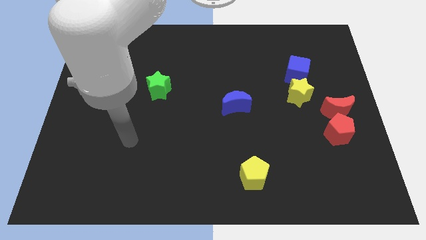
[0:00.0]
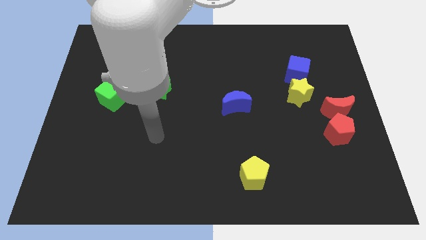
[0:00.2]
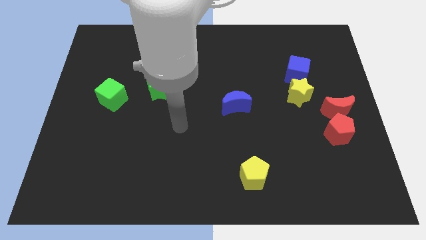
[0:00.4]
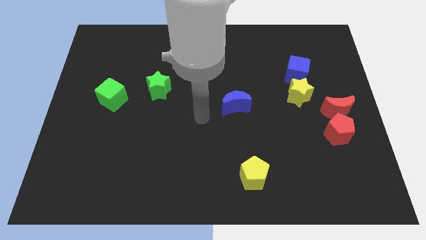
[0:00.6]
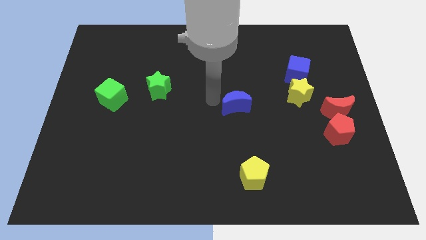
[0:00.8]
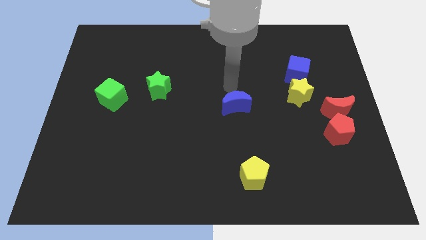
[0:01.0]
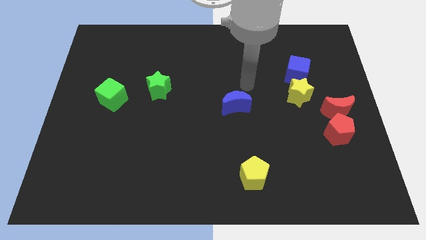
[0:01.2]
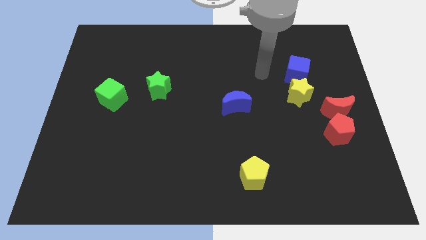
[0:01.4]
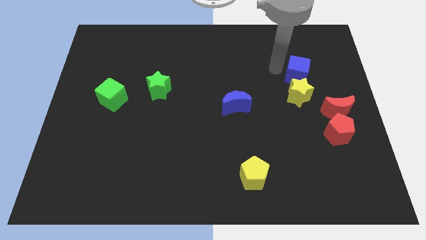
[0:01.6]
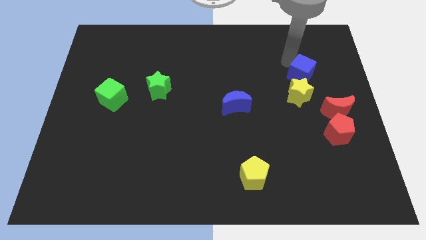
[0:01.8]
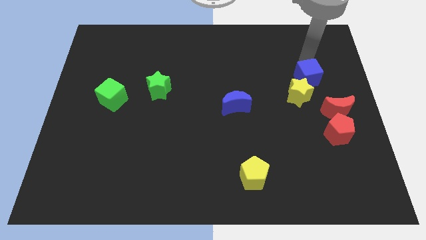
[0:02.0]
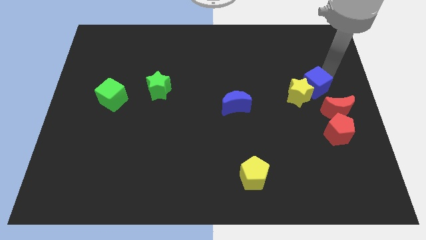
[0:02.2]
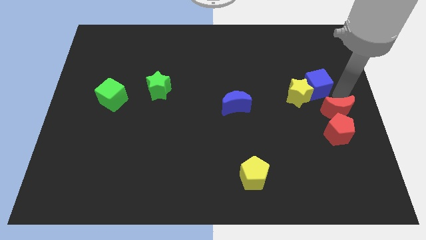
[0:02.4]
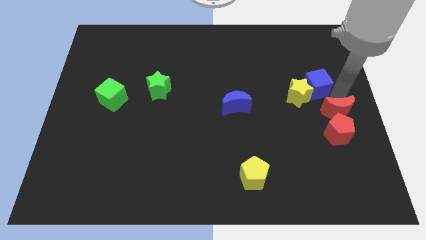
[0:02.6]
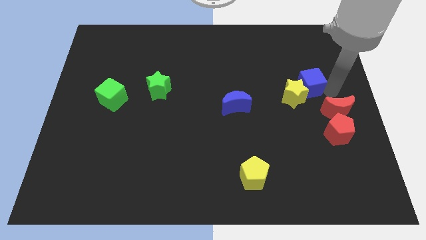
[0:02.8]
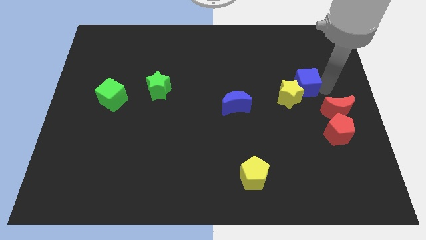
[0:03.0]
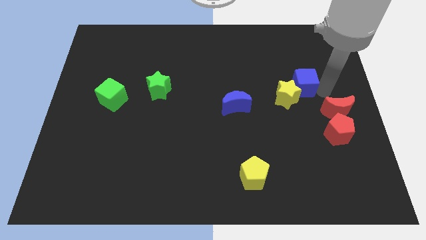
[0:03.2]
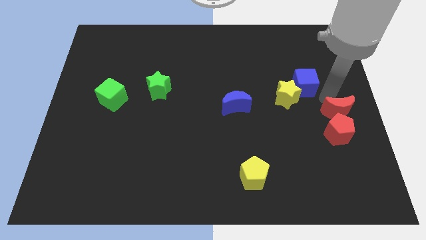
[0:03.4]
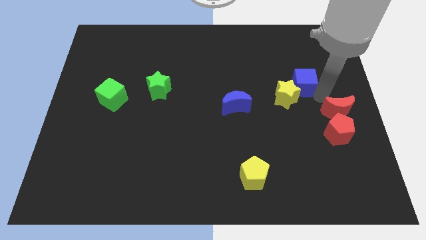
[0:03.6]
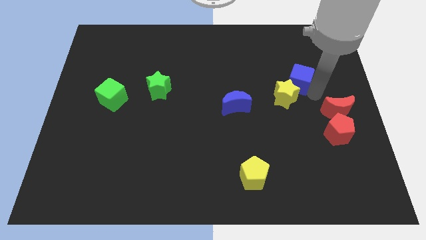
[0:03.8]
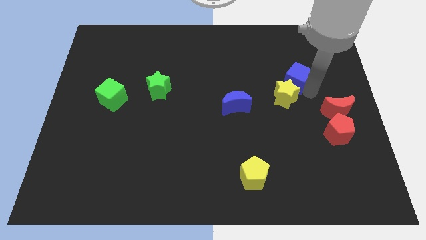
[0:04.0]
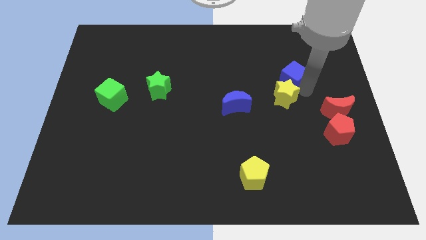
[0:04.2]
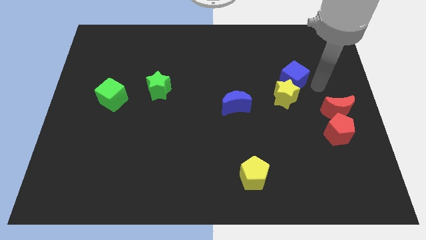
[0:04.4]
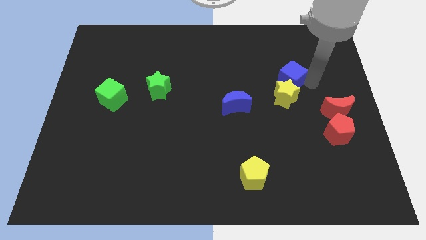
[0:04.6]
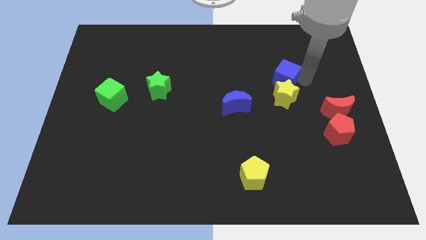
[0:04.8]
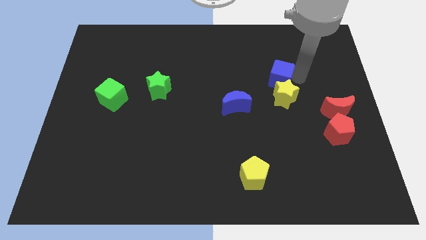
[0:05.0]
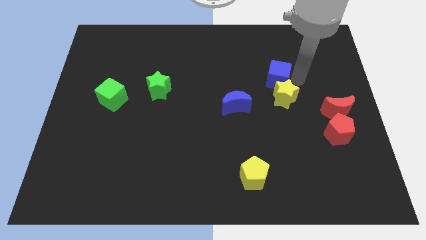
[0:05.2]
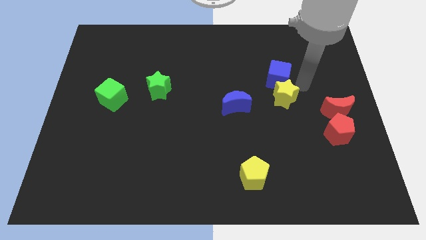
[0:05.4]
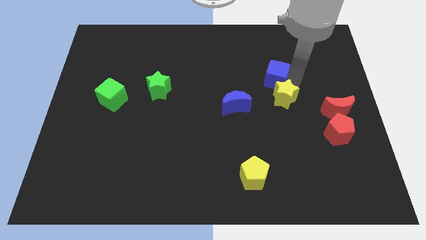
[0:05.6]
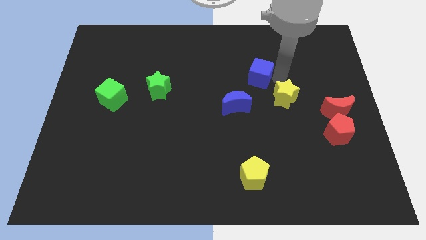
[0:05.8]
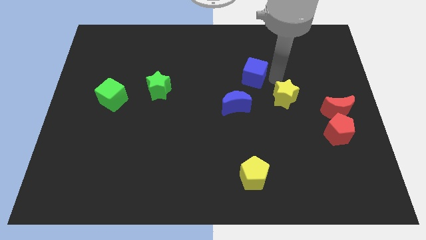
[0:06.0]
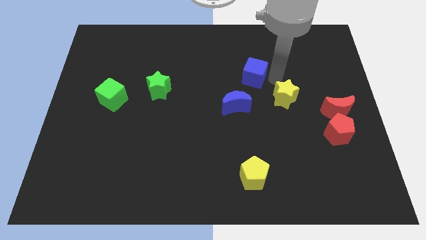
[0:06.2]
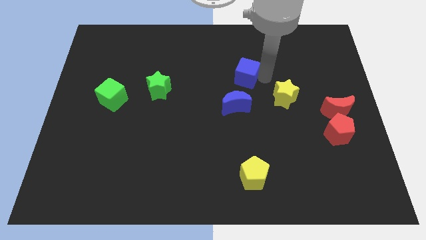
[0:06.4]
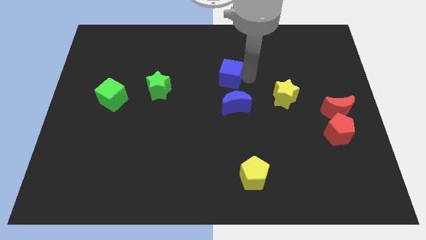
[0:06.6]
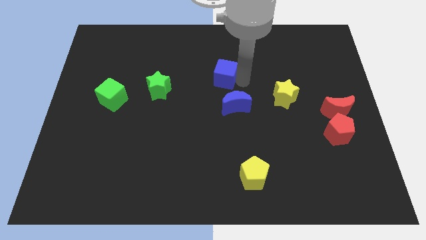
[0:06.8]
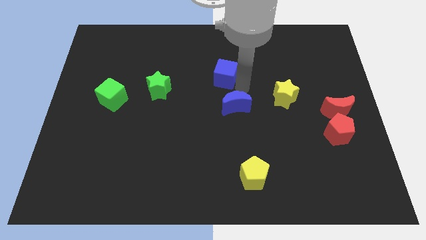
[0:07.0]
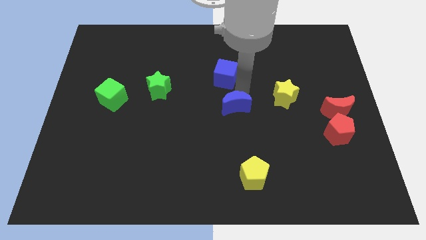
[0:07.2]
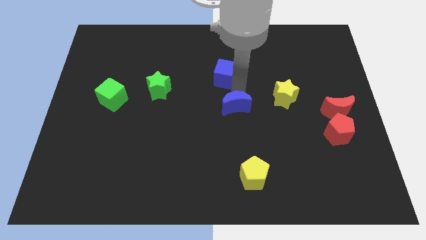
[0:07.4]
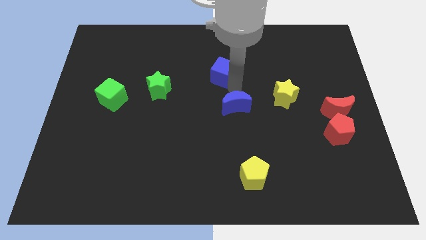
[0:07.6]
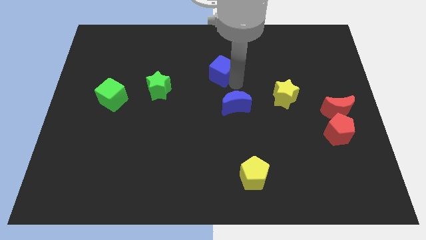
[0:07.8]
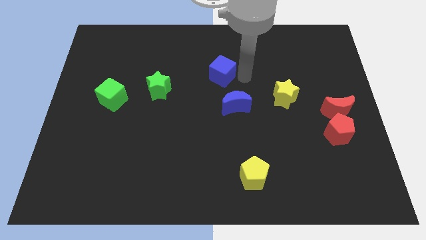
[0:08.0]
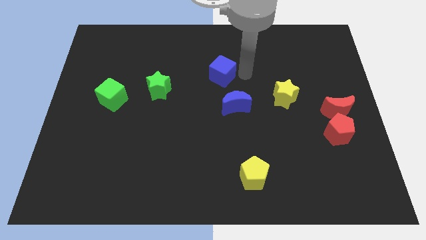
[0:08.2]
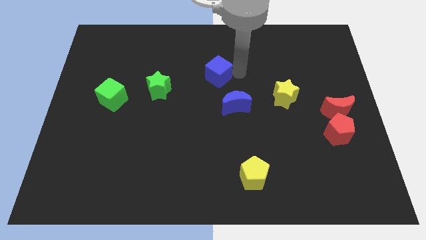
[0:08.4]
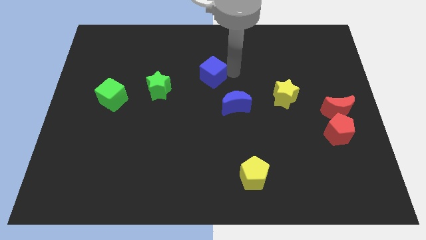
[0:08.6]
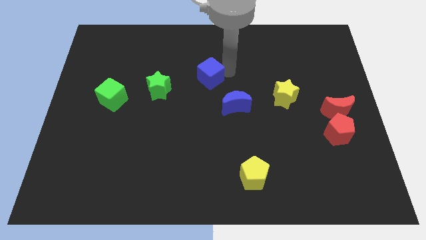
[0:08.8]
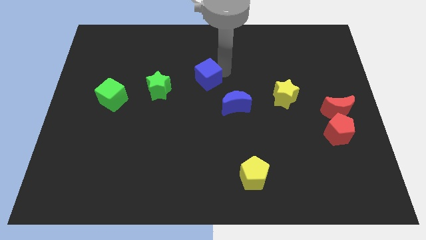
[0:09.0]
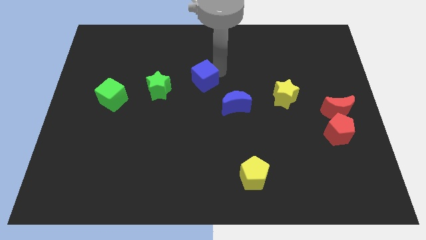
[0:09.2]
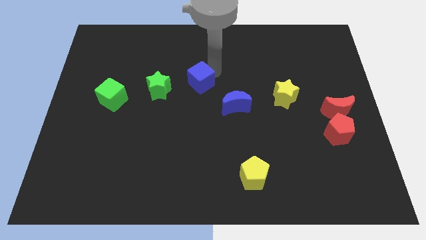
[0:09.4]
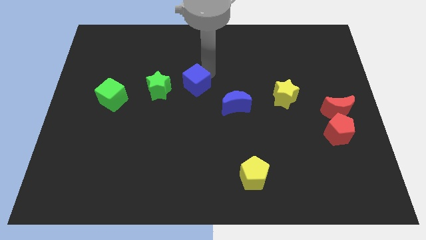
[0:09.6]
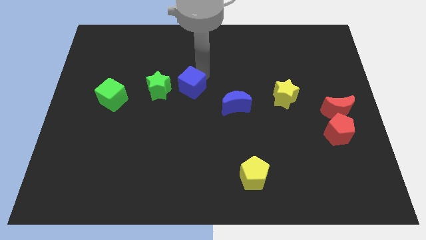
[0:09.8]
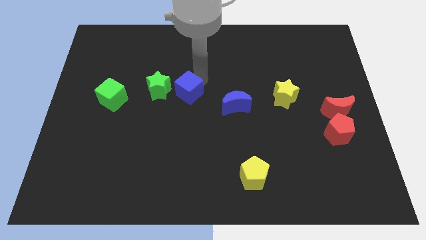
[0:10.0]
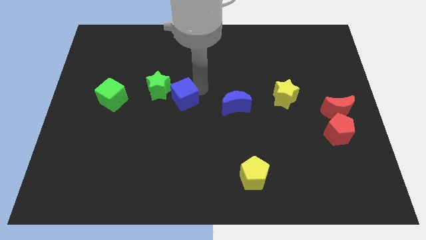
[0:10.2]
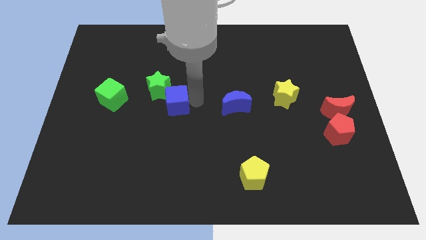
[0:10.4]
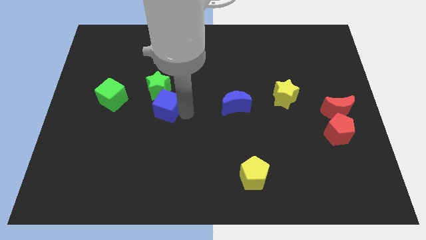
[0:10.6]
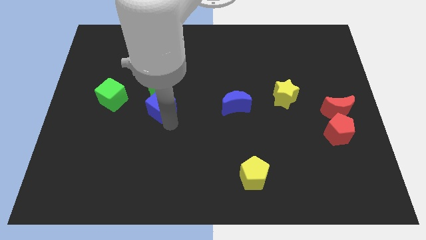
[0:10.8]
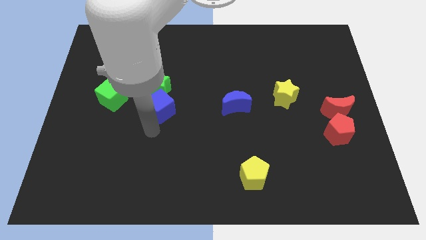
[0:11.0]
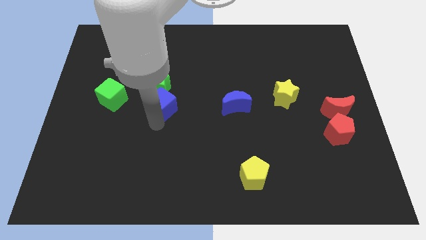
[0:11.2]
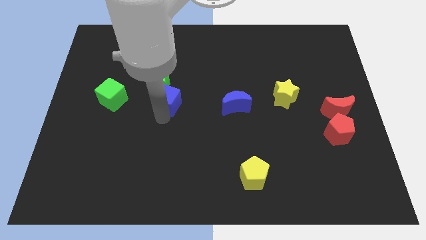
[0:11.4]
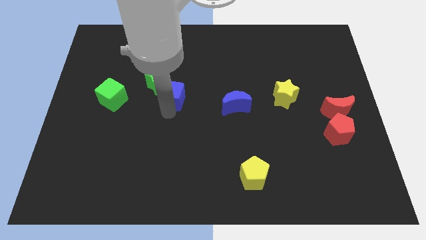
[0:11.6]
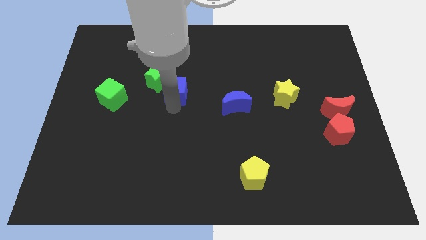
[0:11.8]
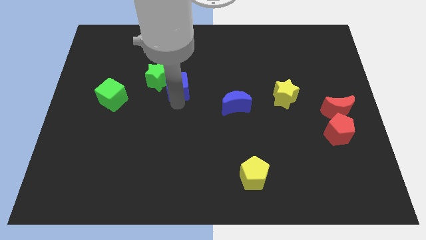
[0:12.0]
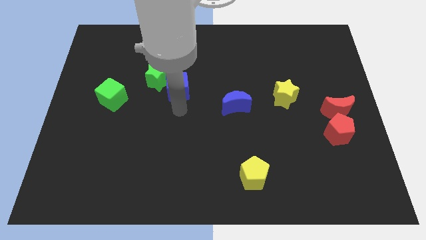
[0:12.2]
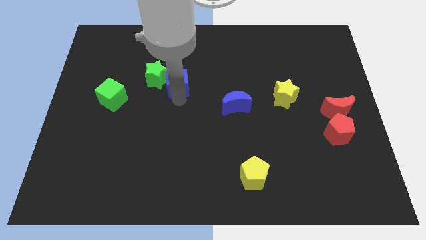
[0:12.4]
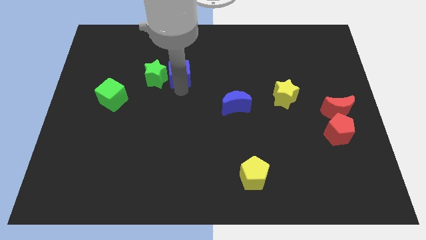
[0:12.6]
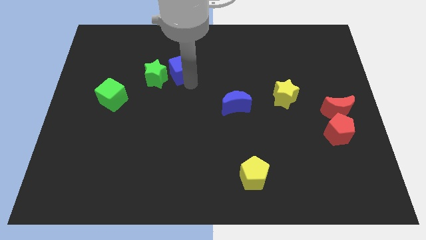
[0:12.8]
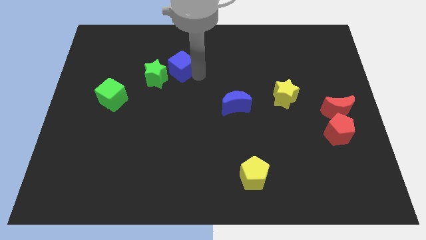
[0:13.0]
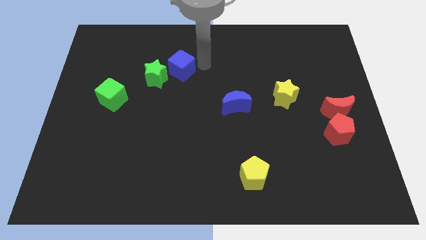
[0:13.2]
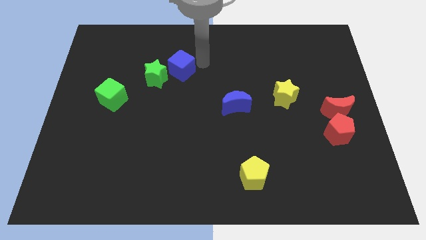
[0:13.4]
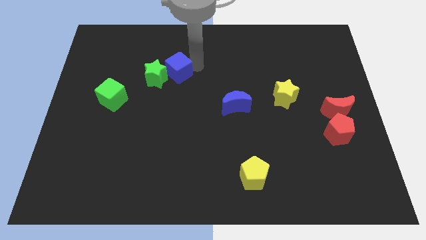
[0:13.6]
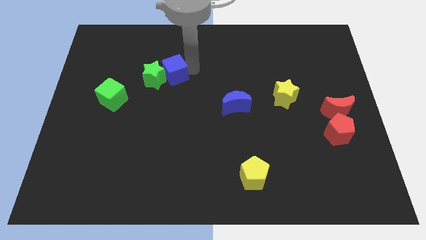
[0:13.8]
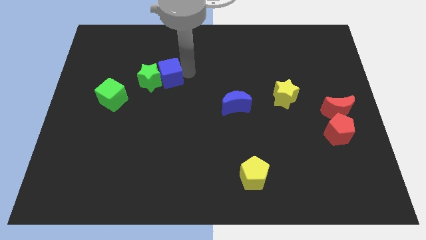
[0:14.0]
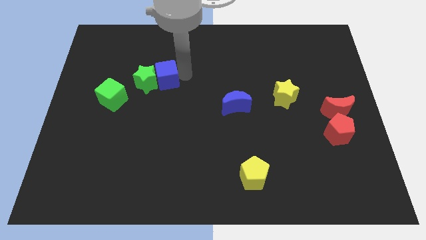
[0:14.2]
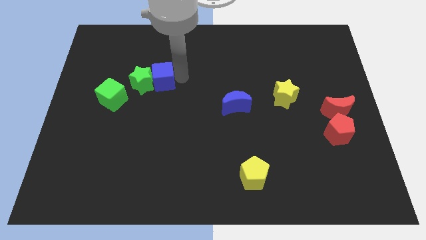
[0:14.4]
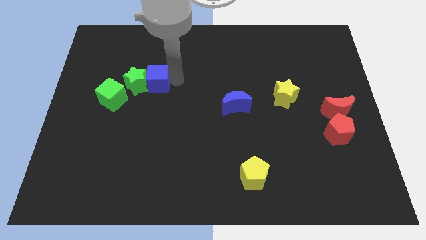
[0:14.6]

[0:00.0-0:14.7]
slide the blue cube to the top right side of the green cube
